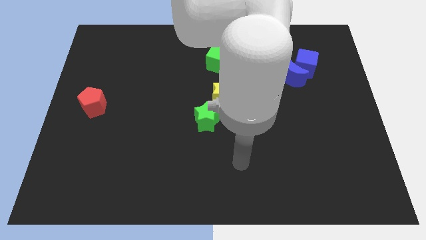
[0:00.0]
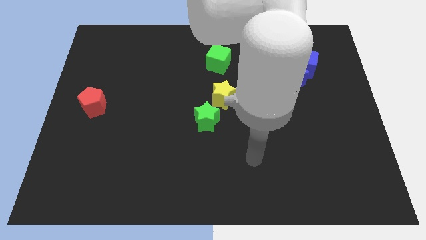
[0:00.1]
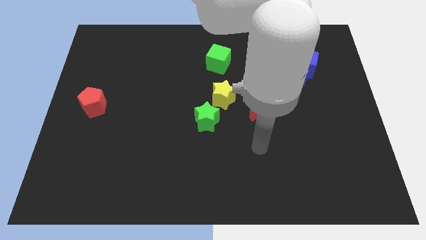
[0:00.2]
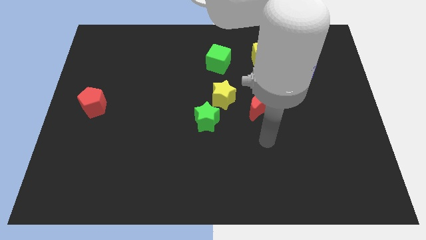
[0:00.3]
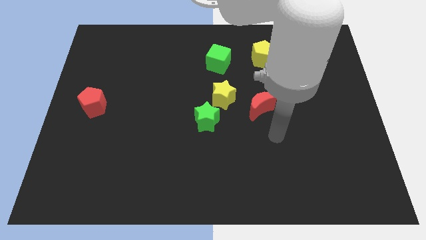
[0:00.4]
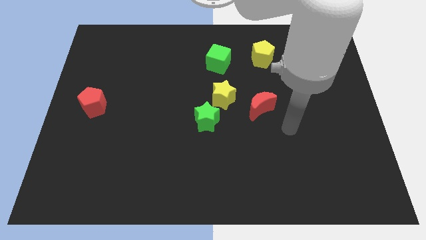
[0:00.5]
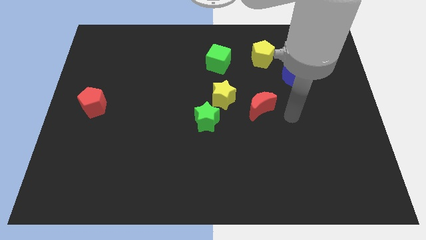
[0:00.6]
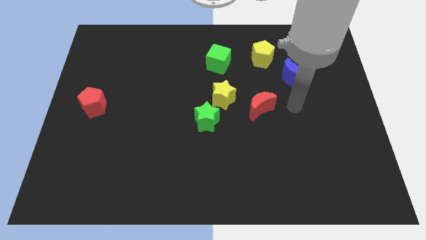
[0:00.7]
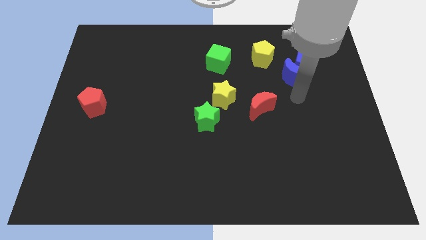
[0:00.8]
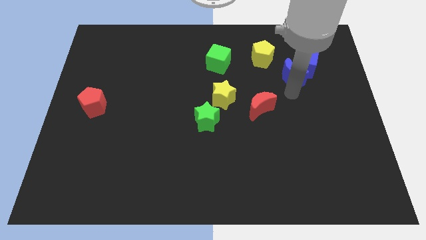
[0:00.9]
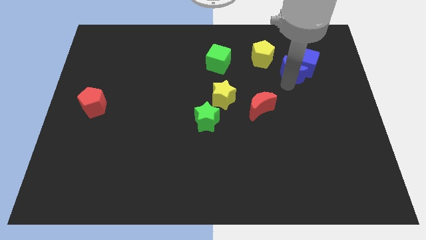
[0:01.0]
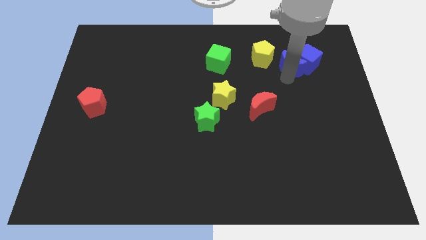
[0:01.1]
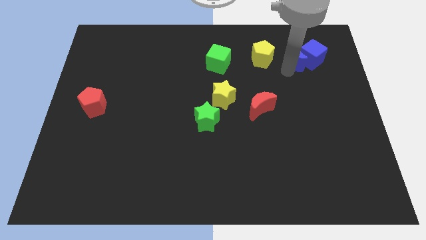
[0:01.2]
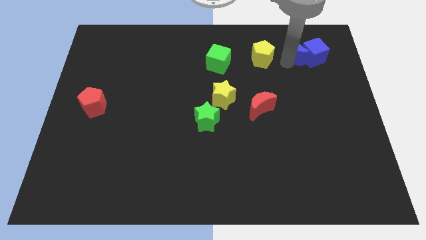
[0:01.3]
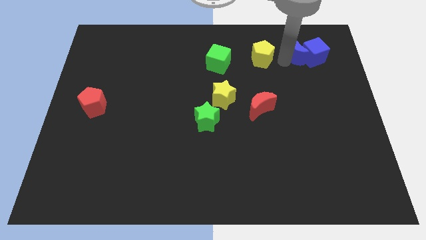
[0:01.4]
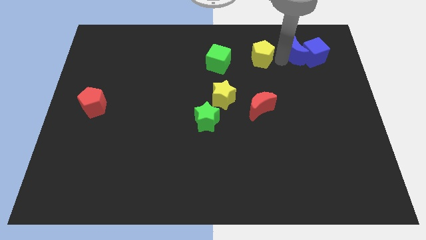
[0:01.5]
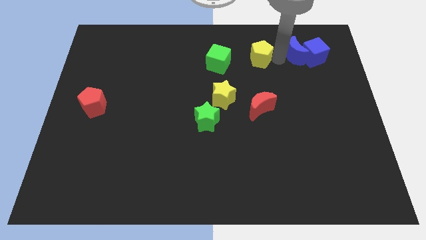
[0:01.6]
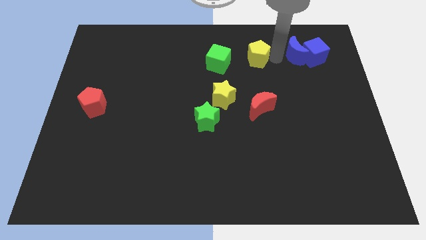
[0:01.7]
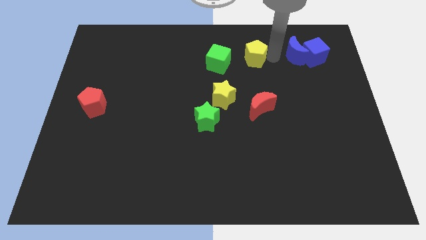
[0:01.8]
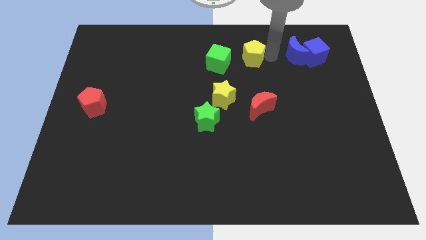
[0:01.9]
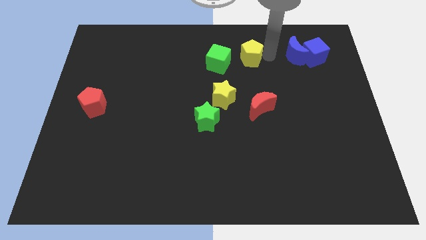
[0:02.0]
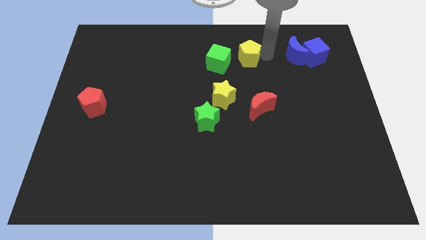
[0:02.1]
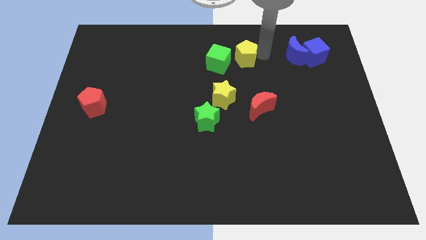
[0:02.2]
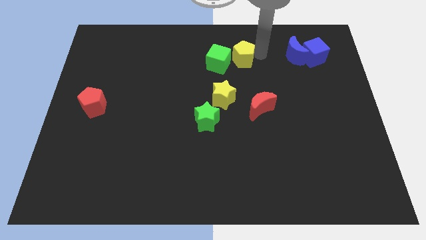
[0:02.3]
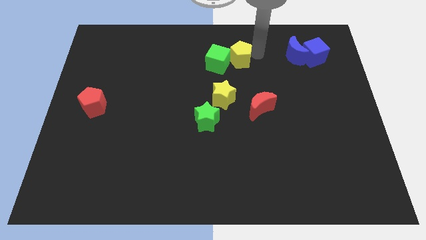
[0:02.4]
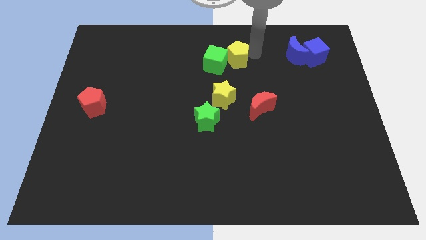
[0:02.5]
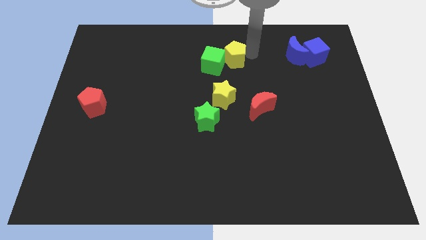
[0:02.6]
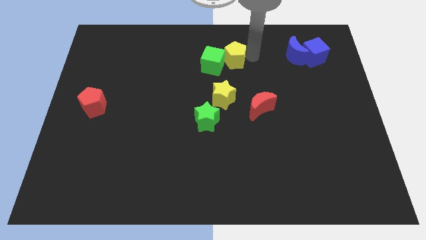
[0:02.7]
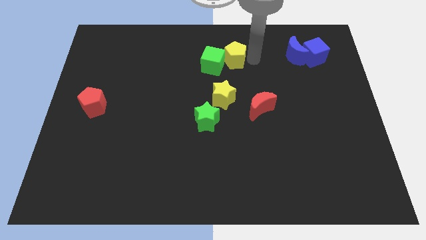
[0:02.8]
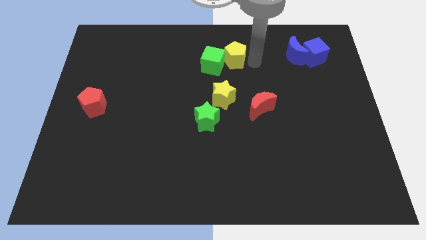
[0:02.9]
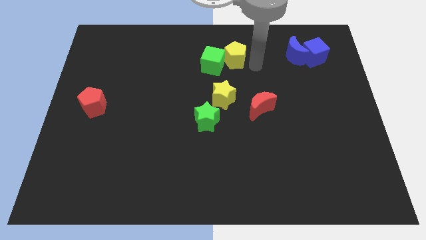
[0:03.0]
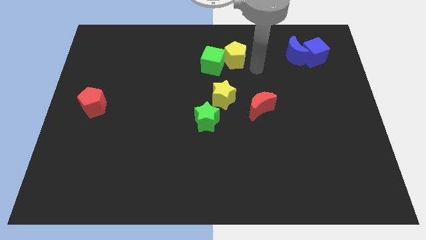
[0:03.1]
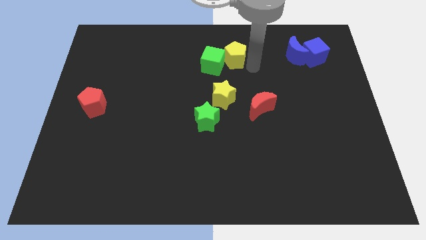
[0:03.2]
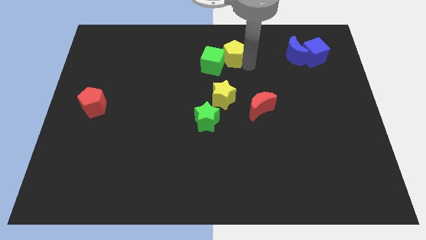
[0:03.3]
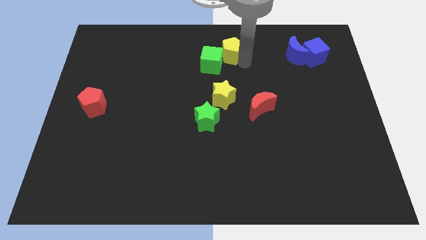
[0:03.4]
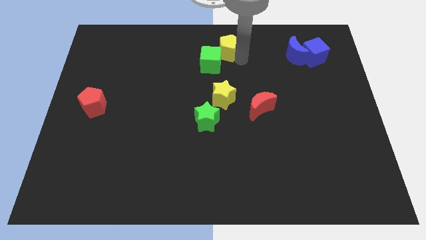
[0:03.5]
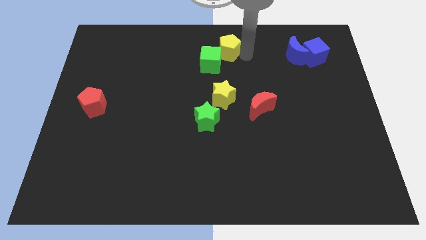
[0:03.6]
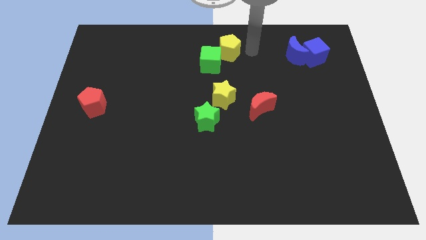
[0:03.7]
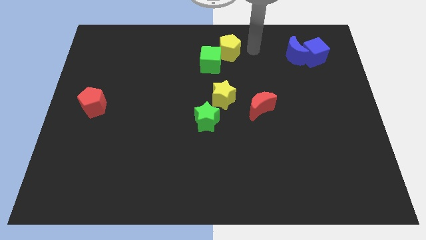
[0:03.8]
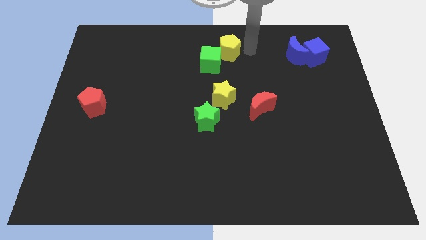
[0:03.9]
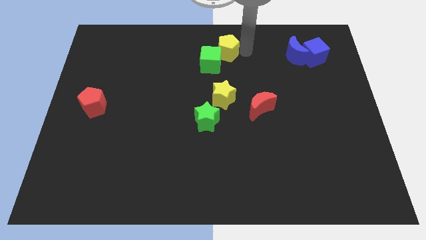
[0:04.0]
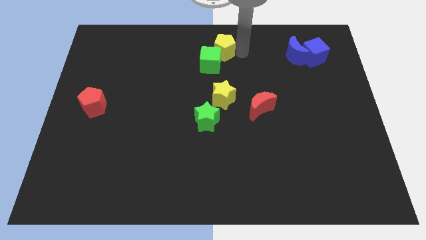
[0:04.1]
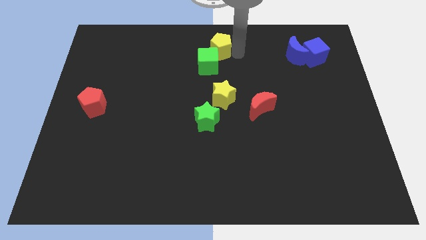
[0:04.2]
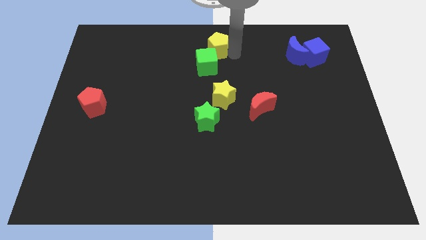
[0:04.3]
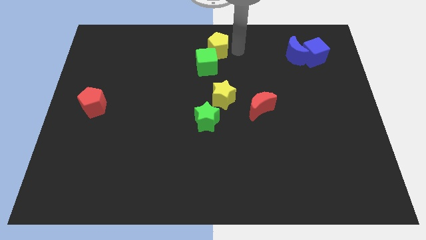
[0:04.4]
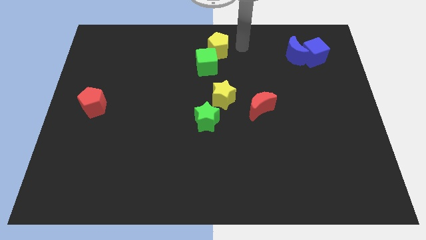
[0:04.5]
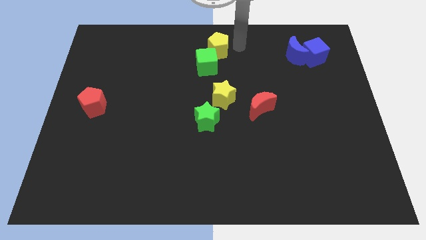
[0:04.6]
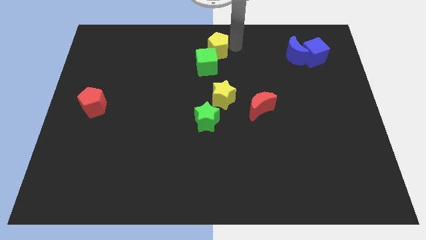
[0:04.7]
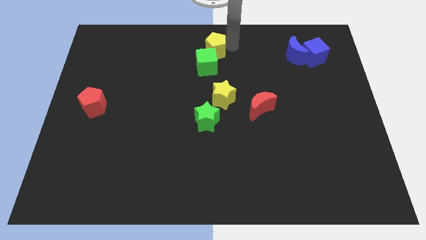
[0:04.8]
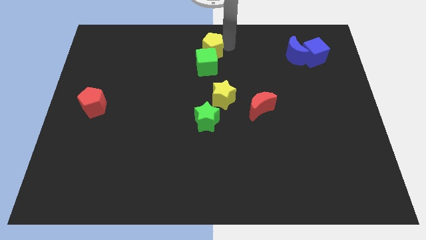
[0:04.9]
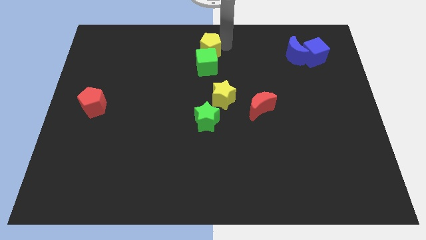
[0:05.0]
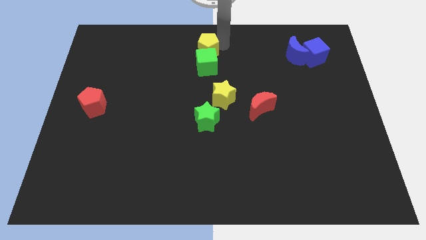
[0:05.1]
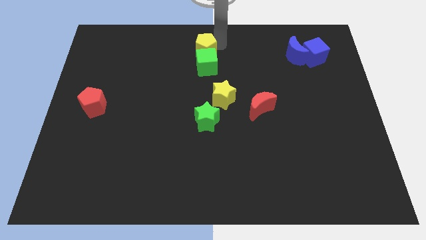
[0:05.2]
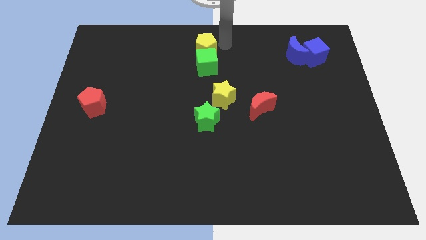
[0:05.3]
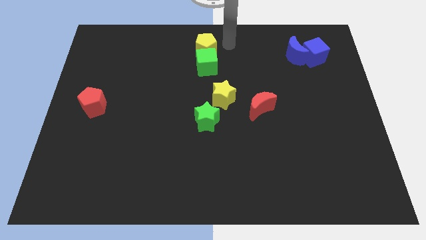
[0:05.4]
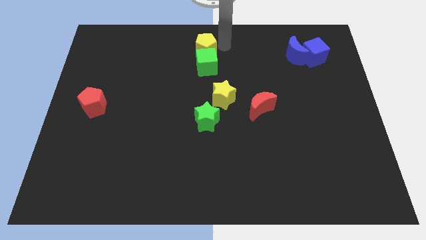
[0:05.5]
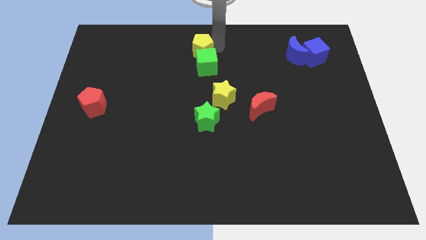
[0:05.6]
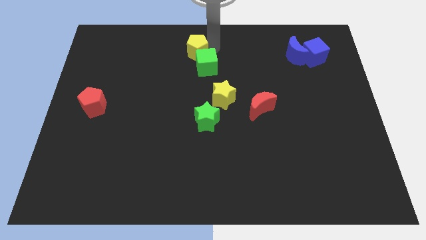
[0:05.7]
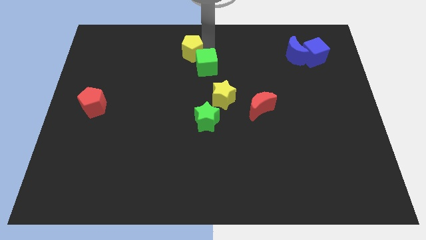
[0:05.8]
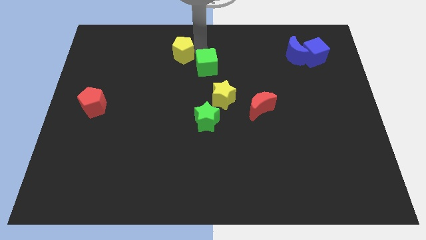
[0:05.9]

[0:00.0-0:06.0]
push the yellow pentagon to the left

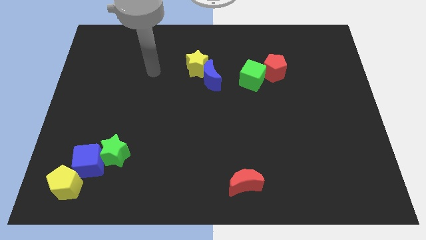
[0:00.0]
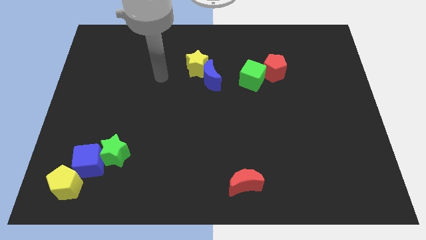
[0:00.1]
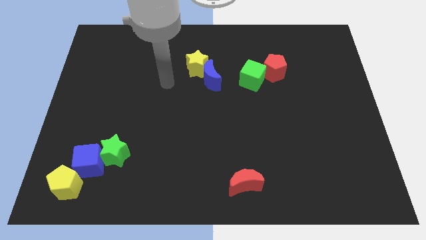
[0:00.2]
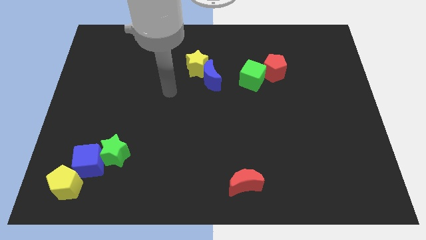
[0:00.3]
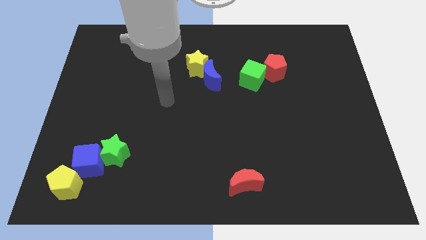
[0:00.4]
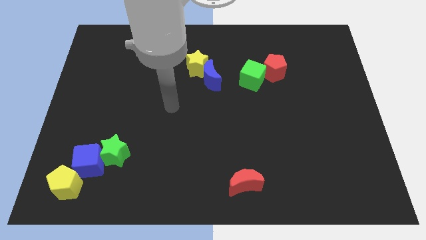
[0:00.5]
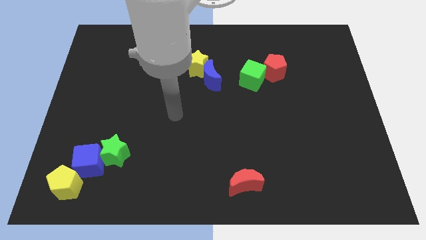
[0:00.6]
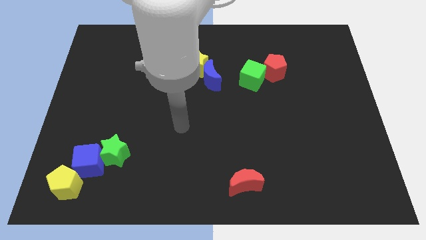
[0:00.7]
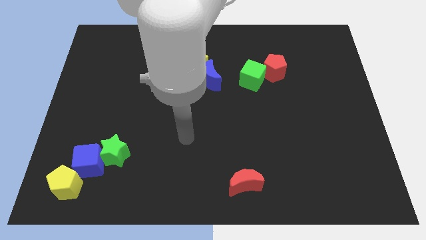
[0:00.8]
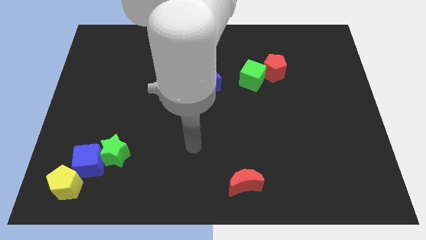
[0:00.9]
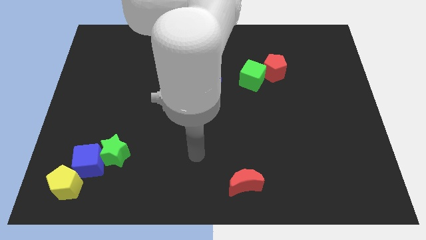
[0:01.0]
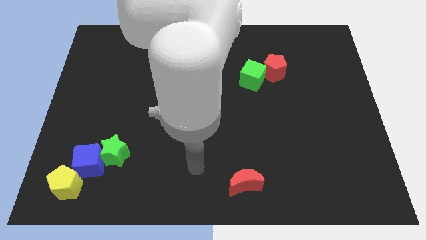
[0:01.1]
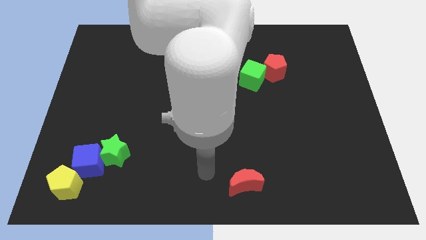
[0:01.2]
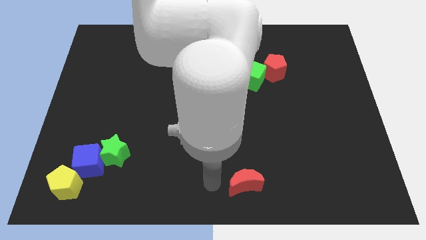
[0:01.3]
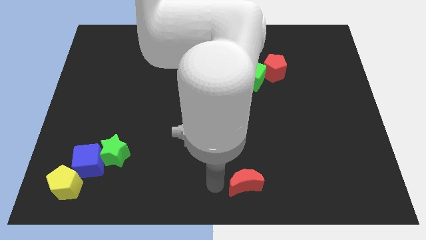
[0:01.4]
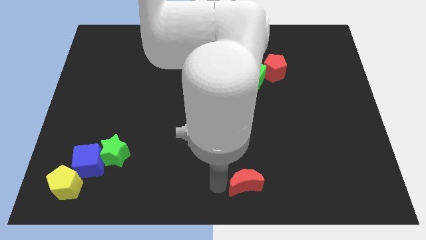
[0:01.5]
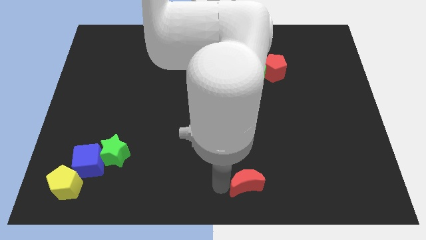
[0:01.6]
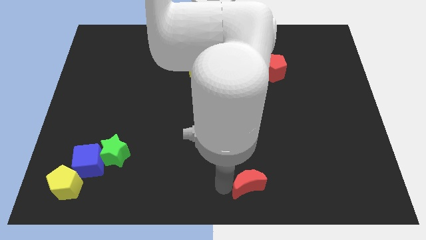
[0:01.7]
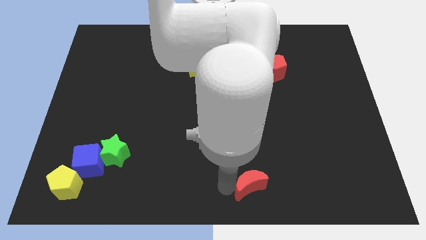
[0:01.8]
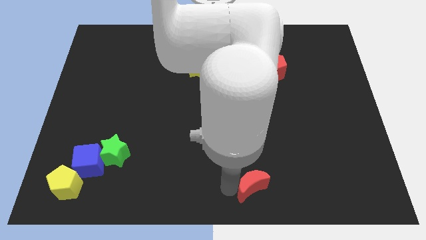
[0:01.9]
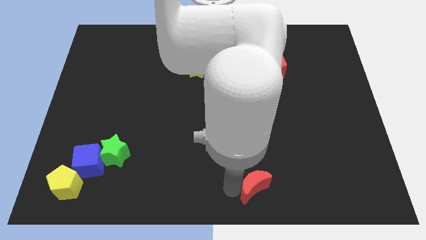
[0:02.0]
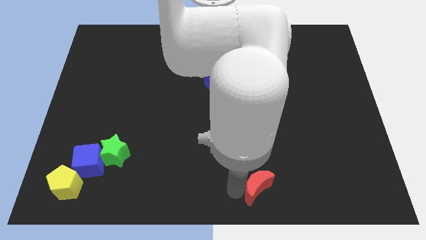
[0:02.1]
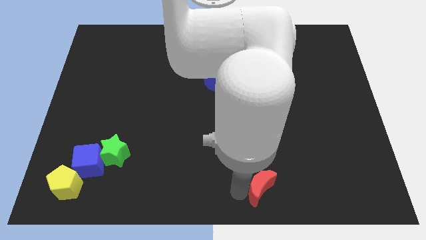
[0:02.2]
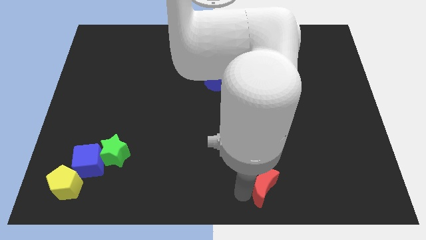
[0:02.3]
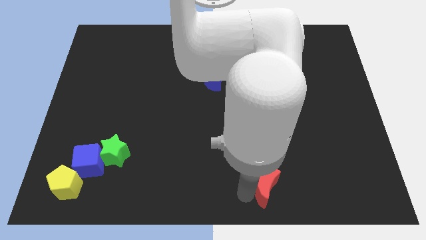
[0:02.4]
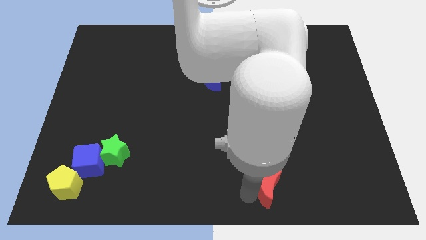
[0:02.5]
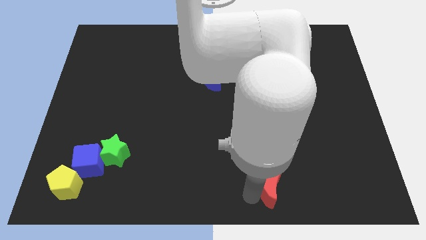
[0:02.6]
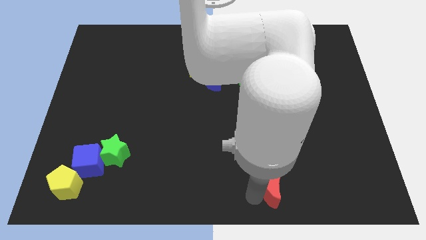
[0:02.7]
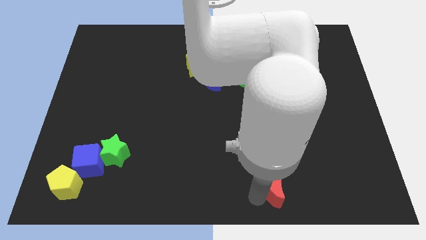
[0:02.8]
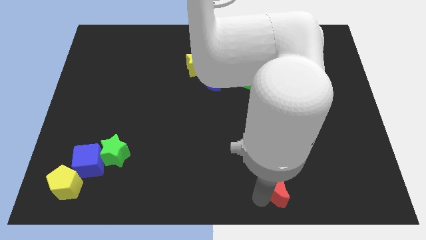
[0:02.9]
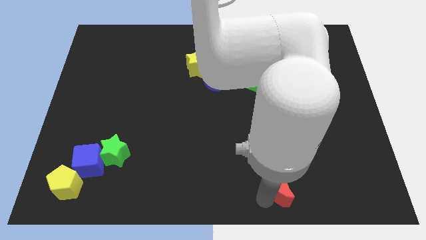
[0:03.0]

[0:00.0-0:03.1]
slightly push the red moon right
